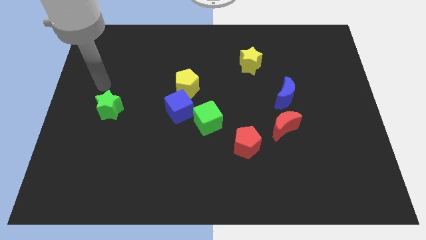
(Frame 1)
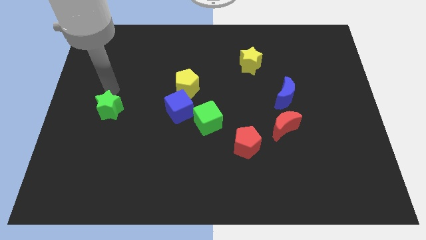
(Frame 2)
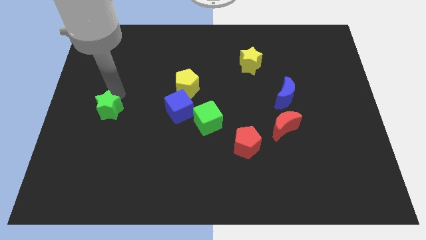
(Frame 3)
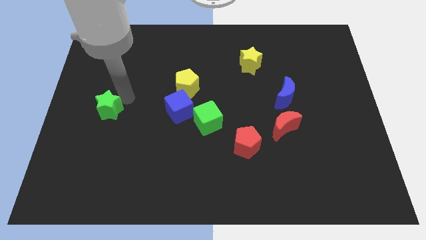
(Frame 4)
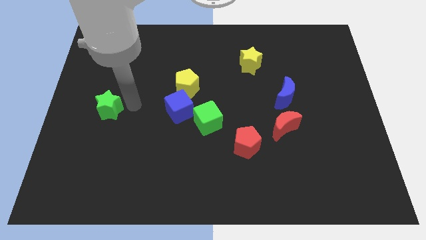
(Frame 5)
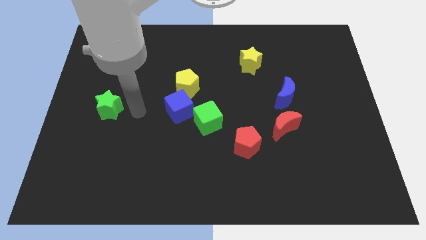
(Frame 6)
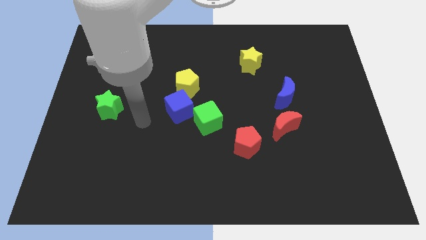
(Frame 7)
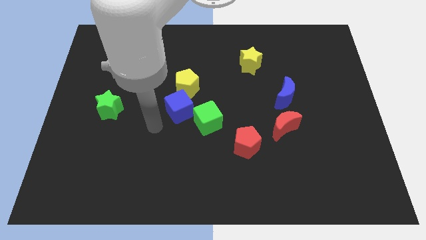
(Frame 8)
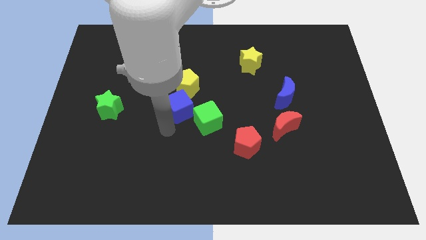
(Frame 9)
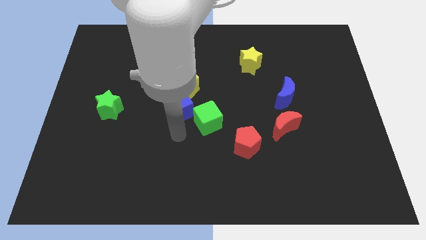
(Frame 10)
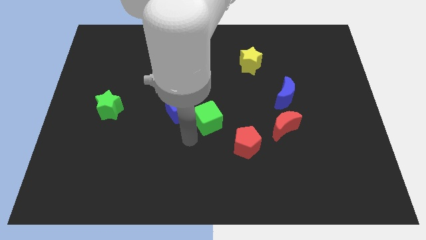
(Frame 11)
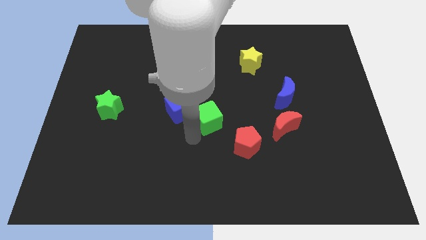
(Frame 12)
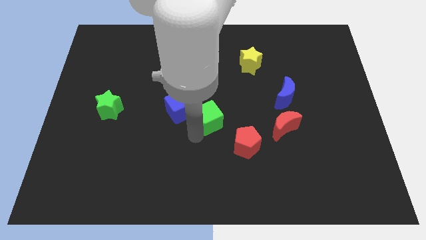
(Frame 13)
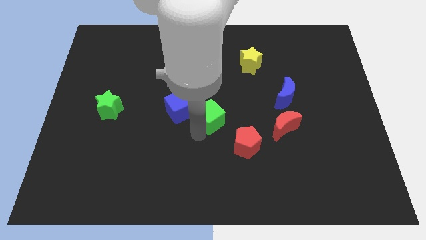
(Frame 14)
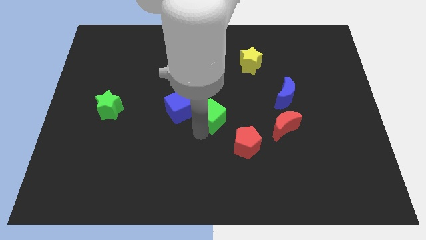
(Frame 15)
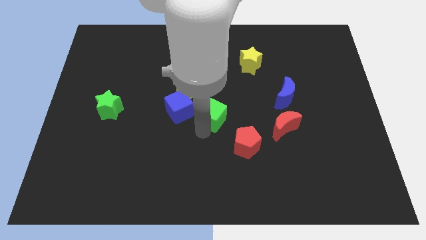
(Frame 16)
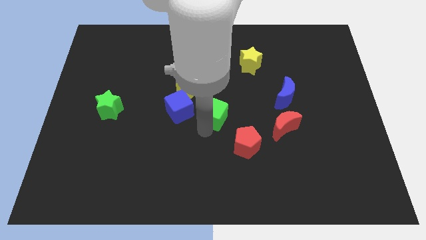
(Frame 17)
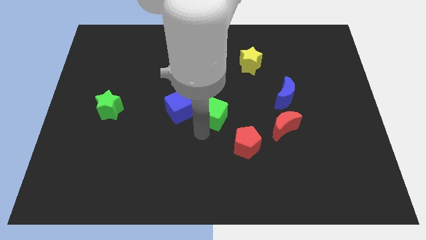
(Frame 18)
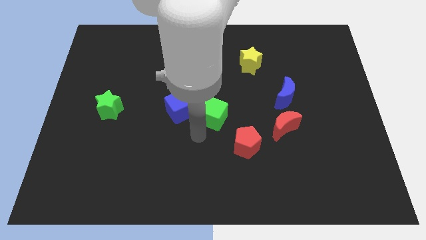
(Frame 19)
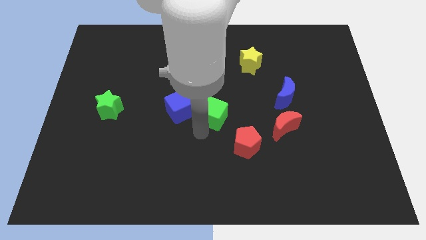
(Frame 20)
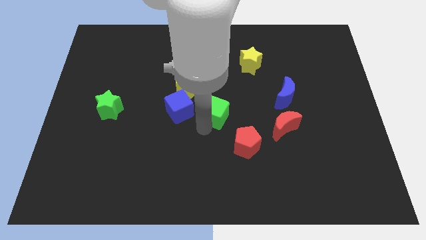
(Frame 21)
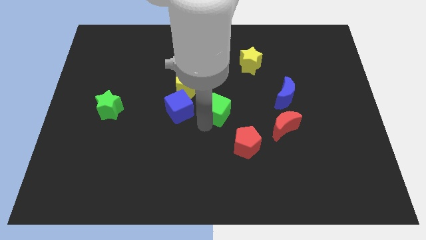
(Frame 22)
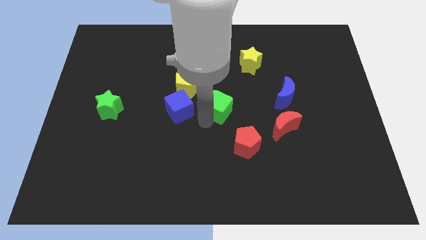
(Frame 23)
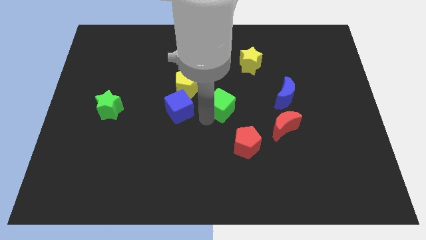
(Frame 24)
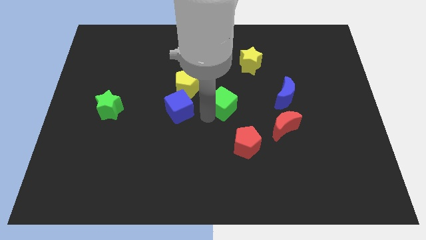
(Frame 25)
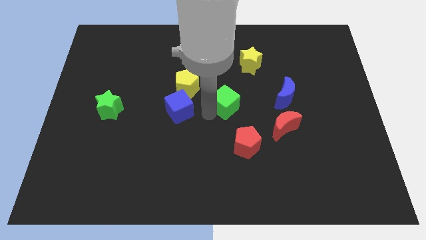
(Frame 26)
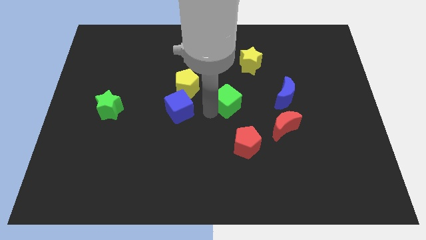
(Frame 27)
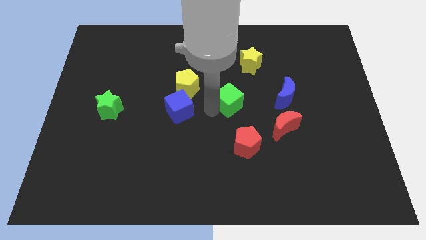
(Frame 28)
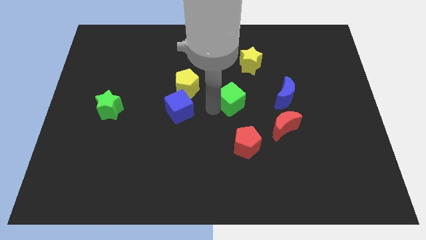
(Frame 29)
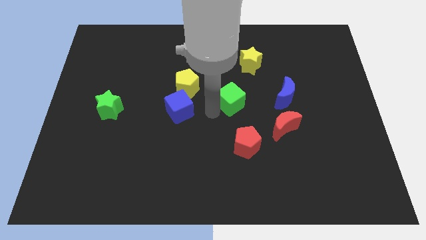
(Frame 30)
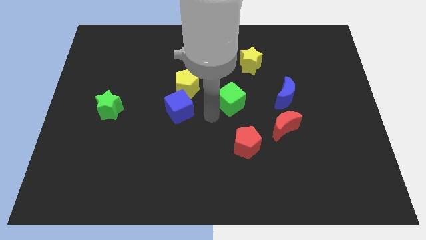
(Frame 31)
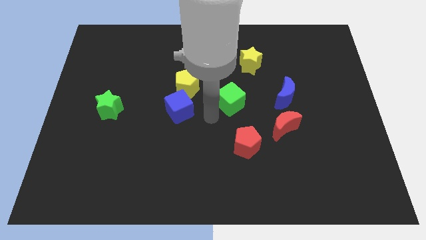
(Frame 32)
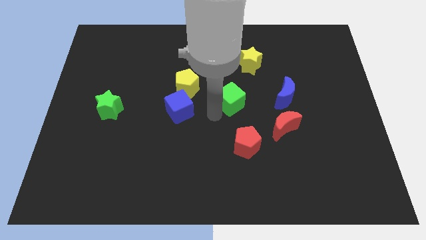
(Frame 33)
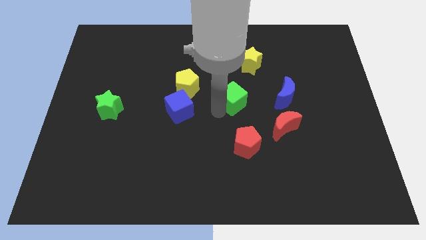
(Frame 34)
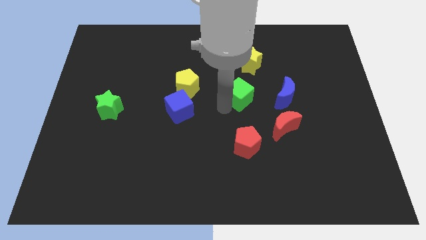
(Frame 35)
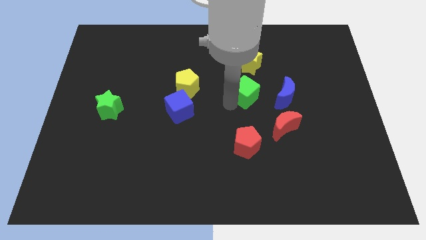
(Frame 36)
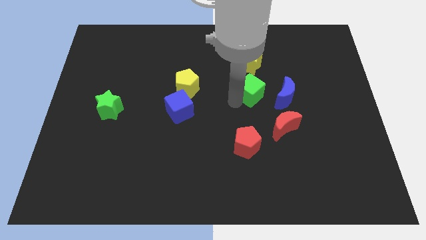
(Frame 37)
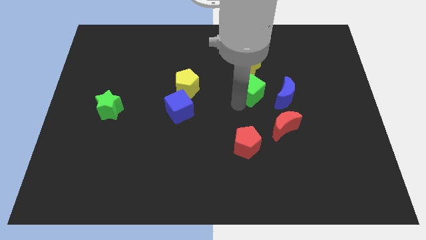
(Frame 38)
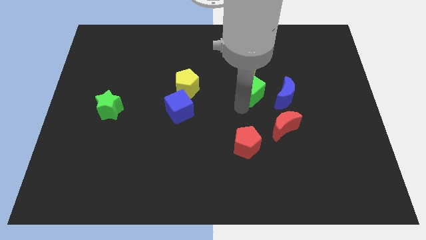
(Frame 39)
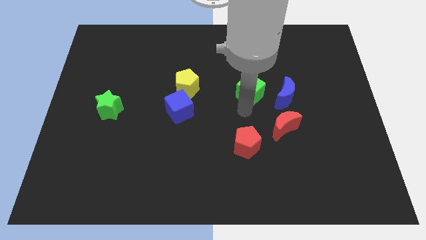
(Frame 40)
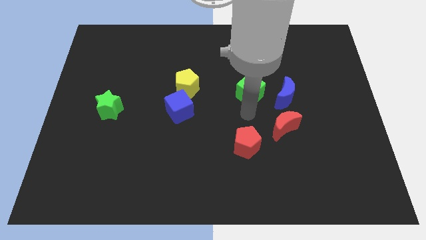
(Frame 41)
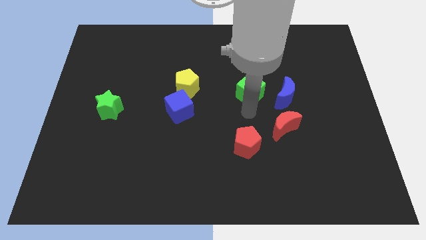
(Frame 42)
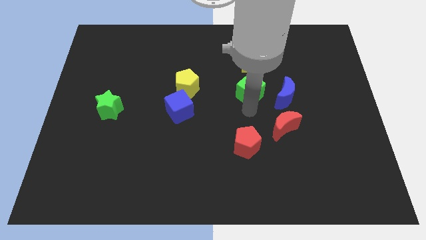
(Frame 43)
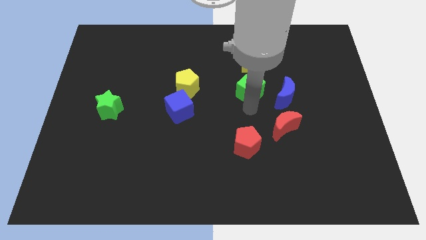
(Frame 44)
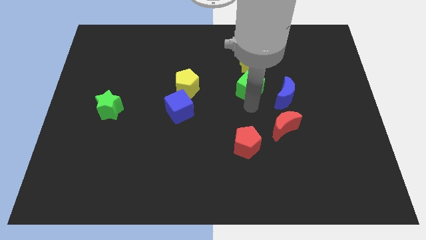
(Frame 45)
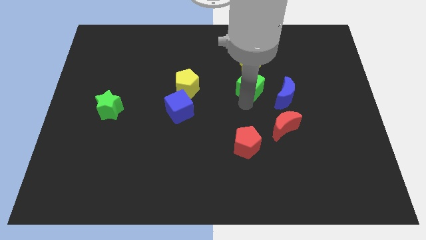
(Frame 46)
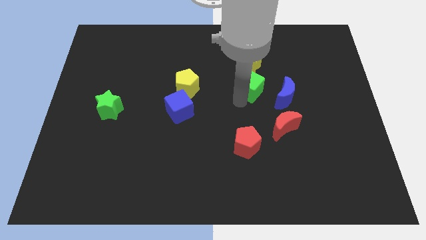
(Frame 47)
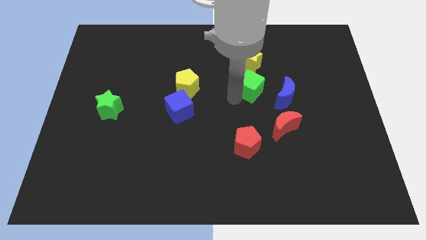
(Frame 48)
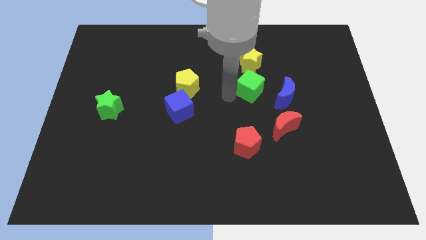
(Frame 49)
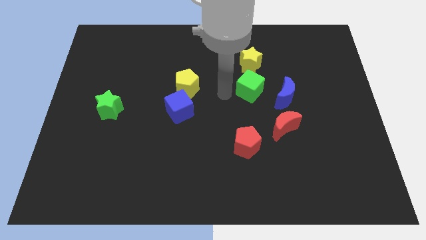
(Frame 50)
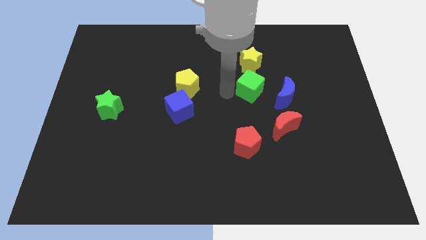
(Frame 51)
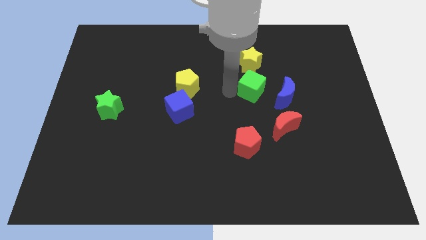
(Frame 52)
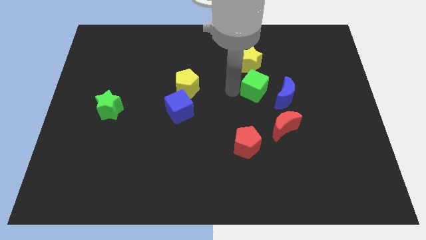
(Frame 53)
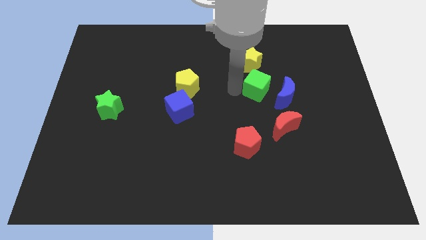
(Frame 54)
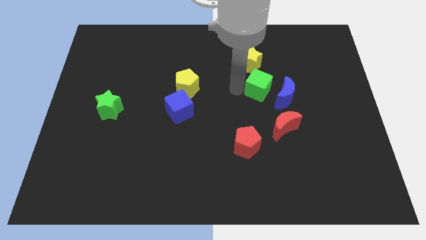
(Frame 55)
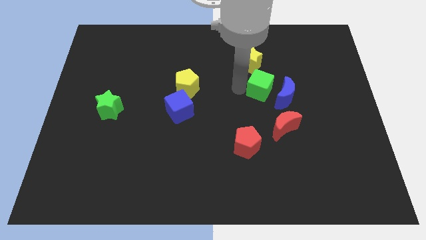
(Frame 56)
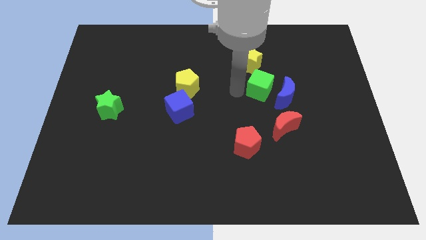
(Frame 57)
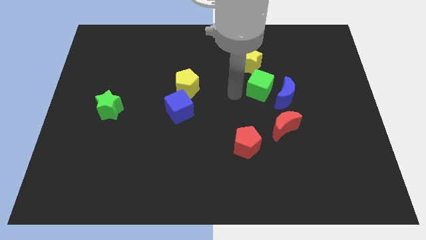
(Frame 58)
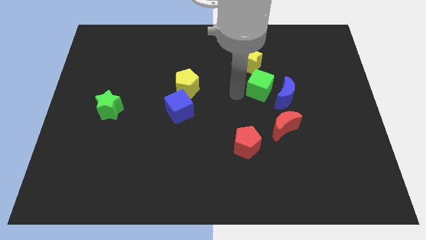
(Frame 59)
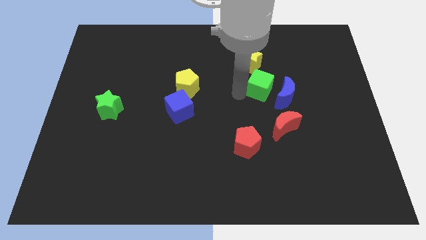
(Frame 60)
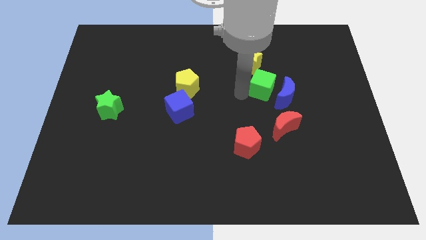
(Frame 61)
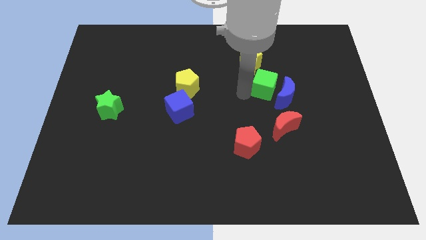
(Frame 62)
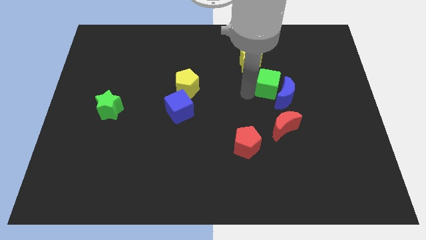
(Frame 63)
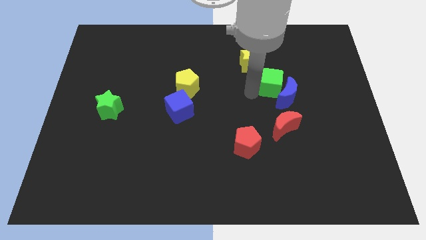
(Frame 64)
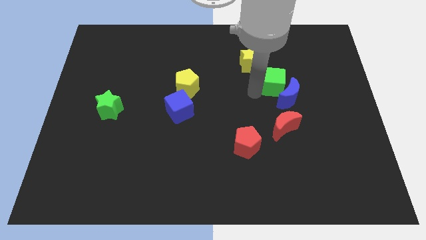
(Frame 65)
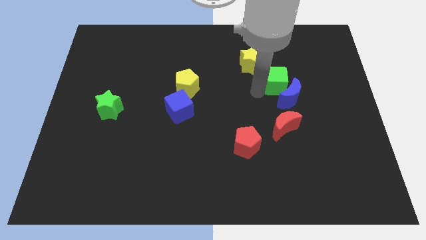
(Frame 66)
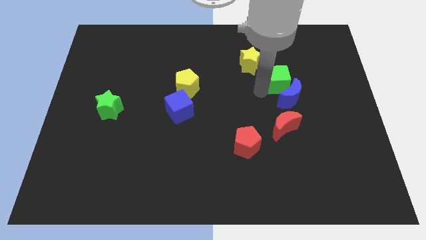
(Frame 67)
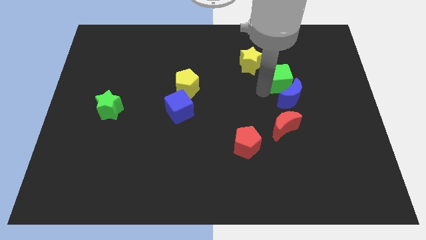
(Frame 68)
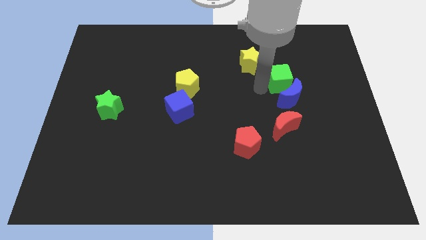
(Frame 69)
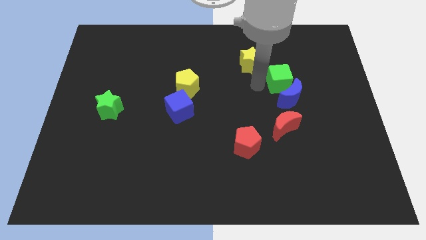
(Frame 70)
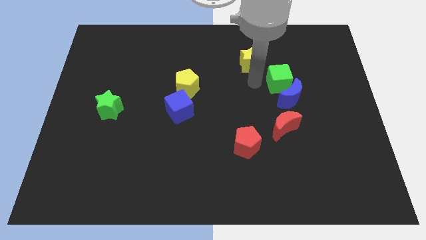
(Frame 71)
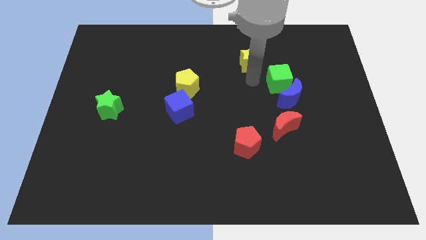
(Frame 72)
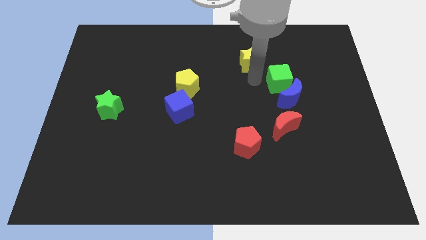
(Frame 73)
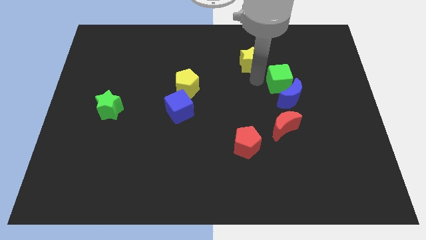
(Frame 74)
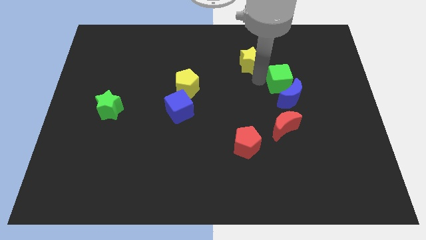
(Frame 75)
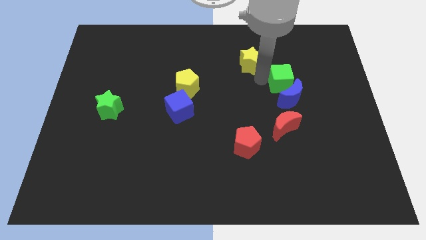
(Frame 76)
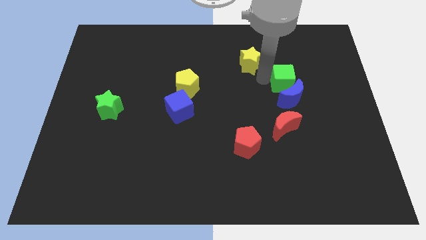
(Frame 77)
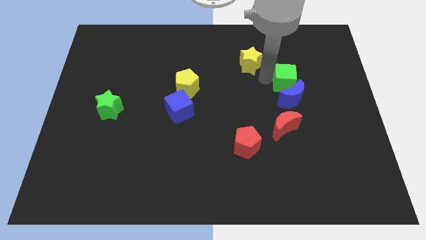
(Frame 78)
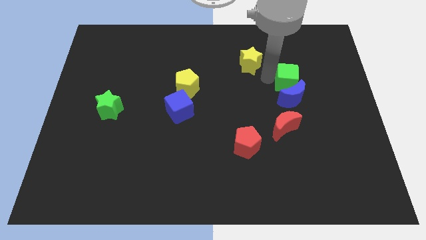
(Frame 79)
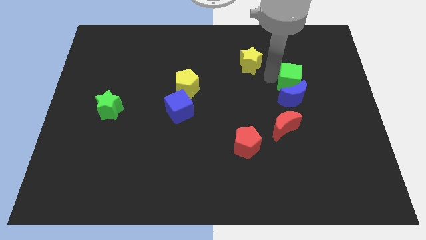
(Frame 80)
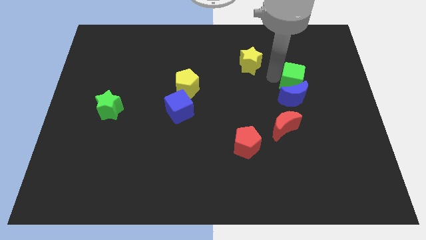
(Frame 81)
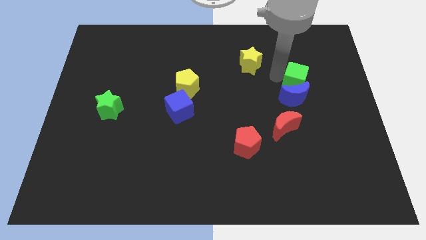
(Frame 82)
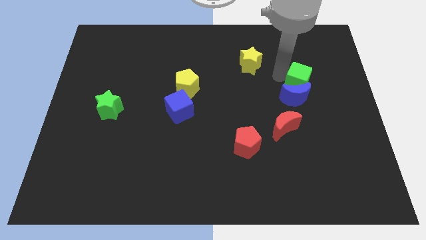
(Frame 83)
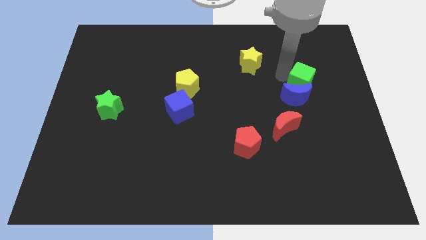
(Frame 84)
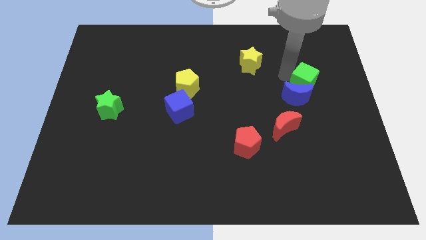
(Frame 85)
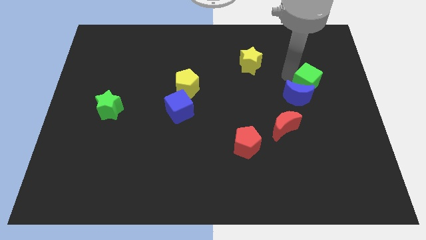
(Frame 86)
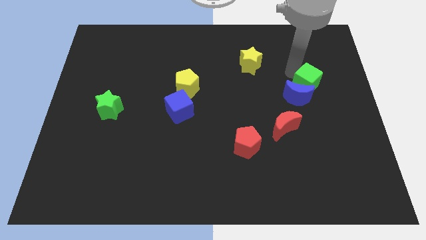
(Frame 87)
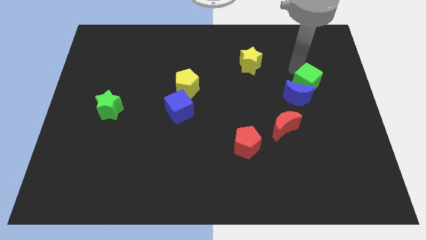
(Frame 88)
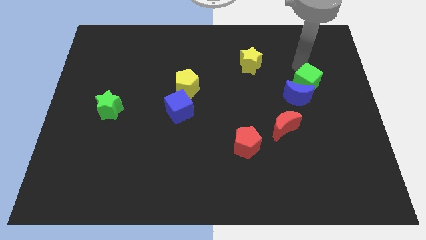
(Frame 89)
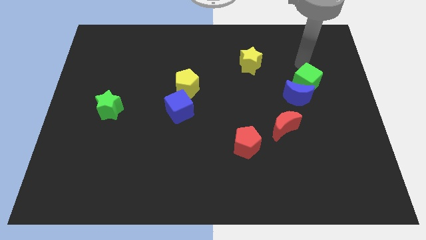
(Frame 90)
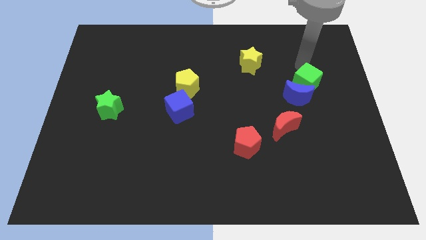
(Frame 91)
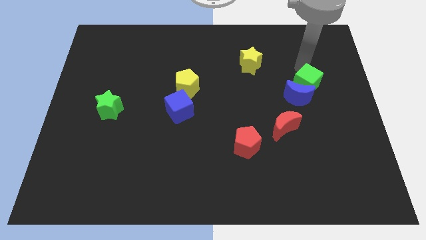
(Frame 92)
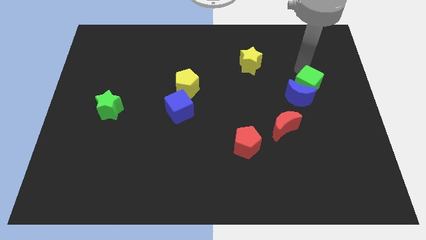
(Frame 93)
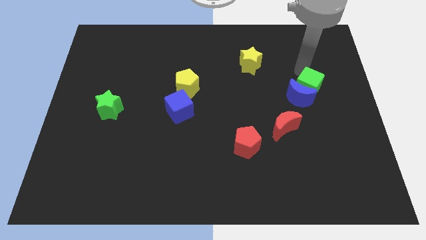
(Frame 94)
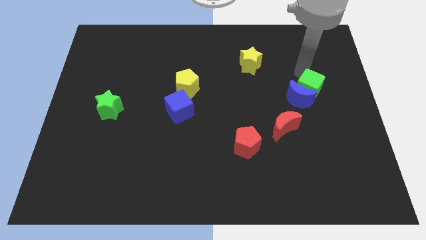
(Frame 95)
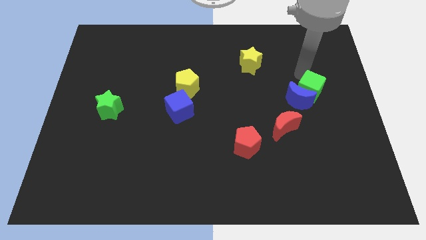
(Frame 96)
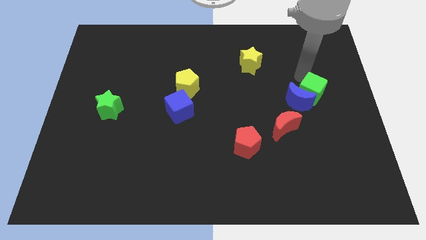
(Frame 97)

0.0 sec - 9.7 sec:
move the green cube to the top right side of the red moon
